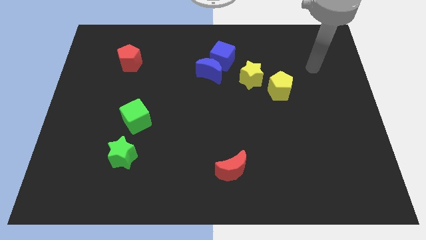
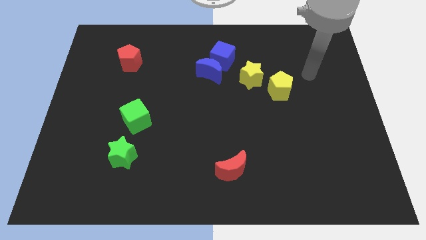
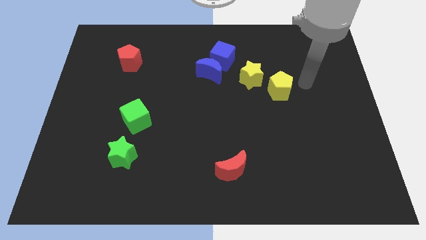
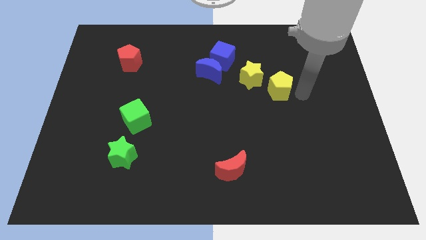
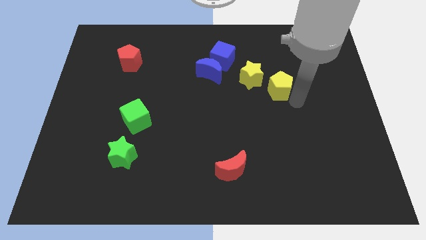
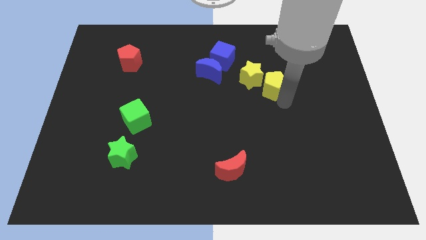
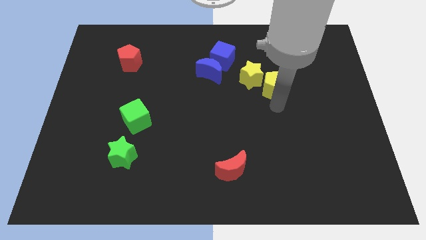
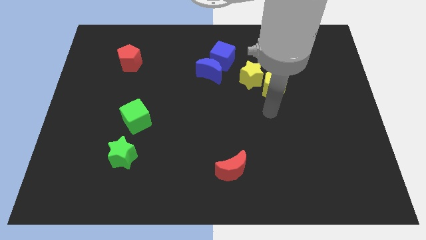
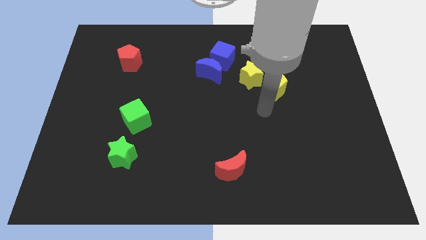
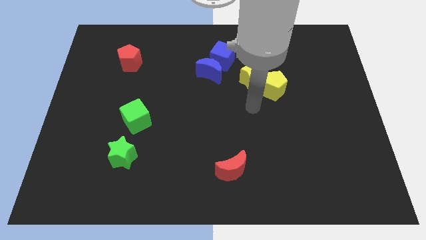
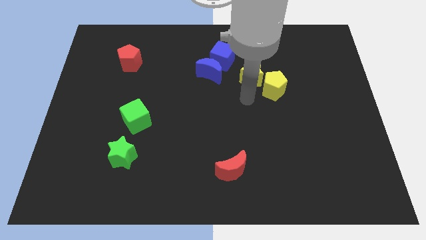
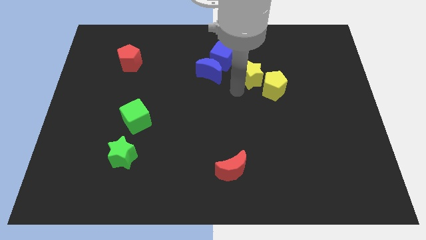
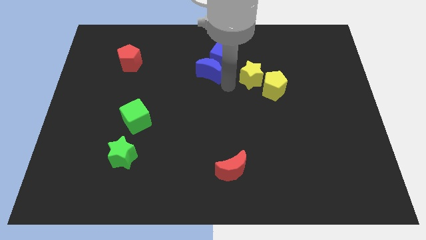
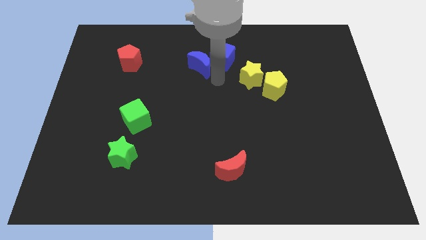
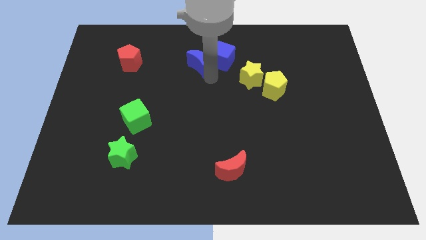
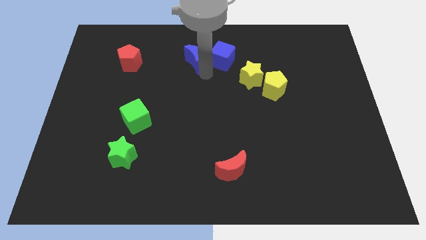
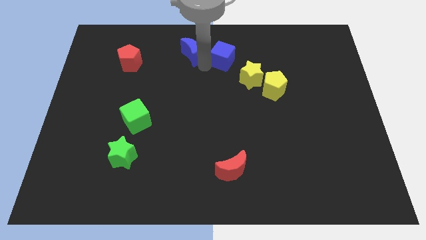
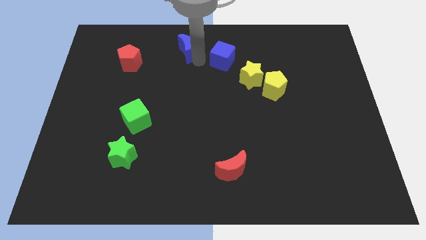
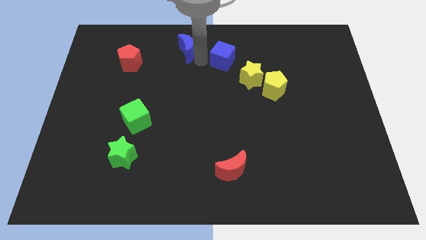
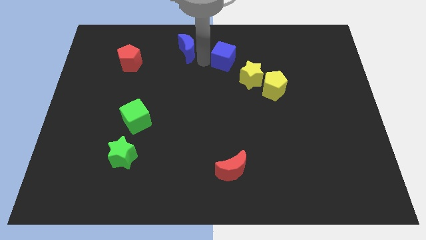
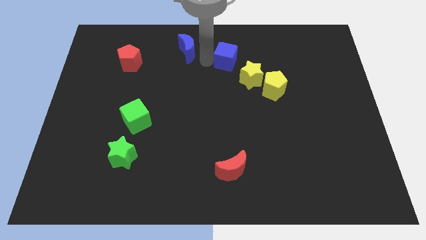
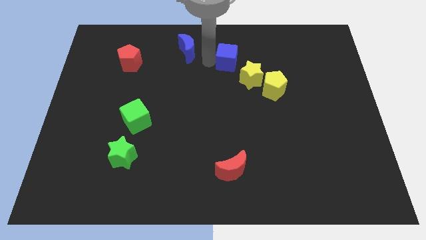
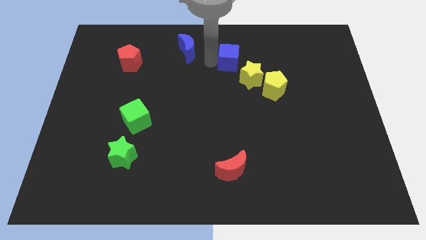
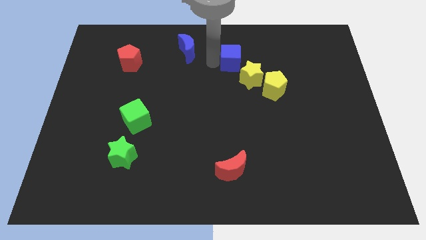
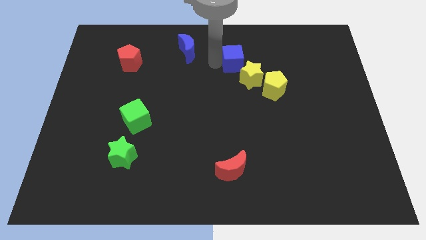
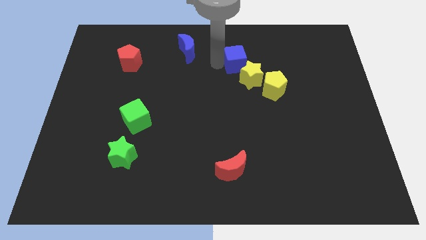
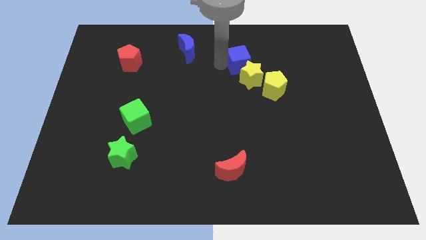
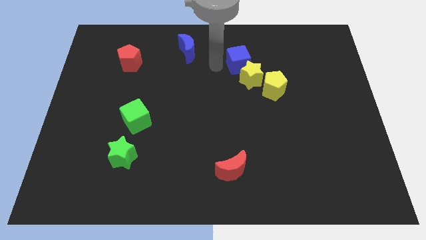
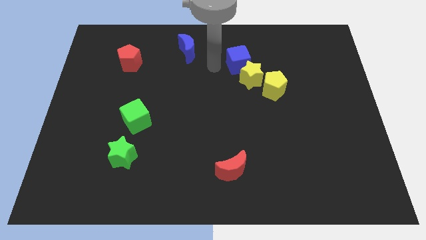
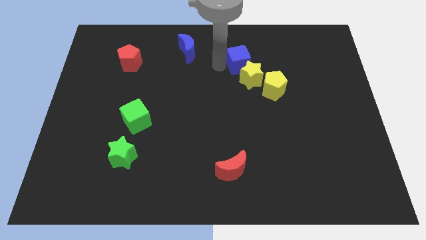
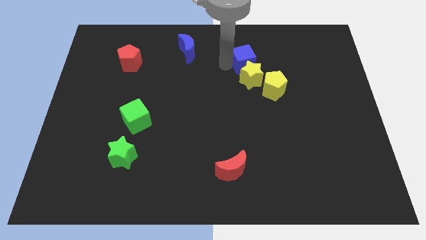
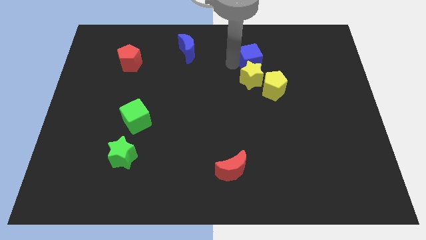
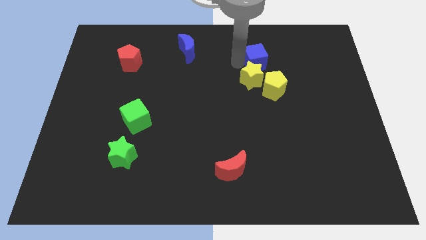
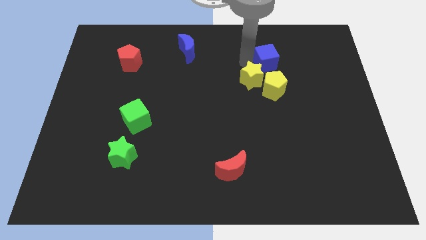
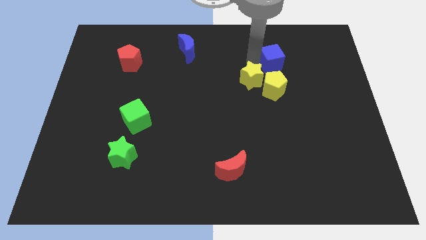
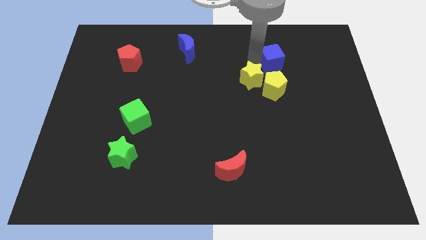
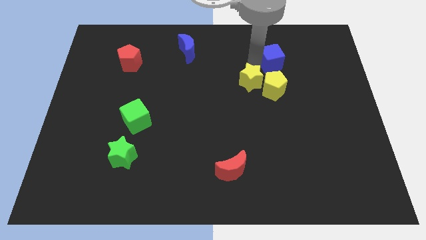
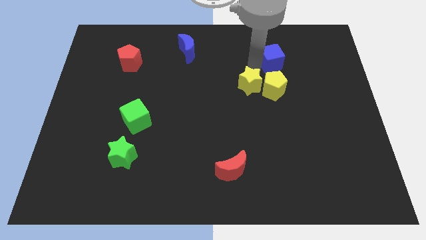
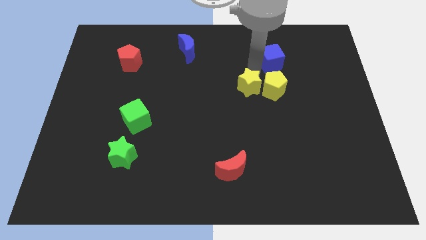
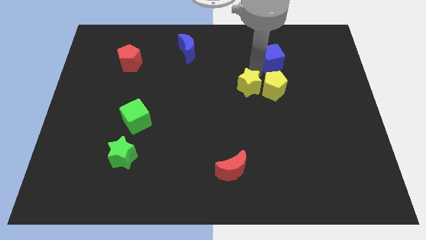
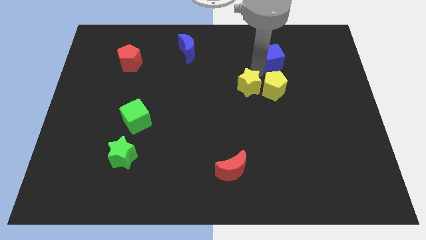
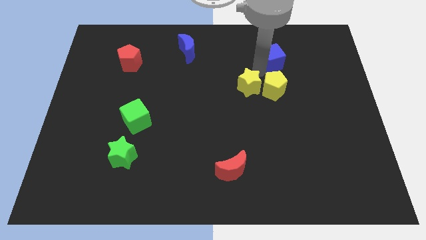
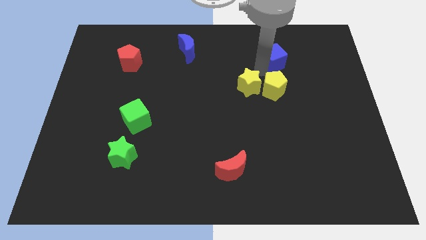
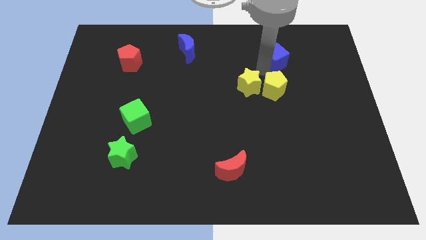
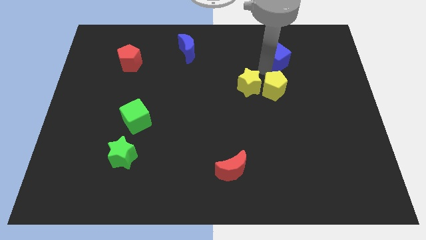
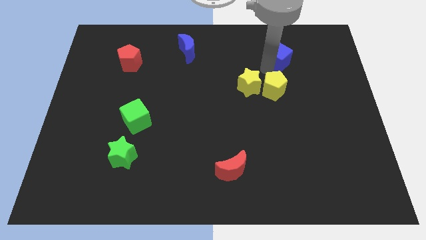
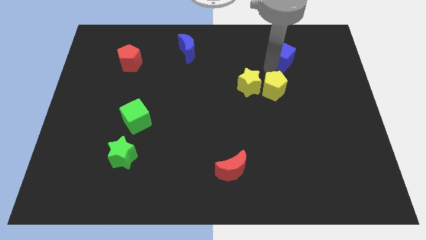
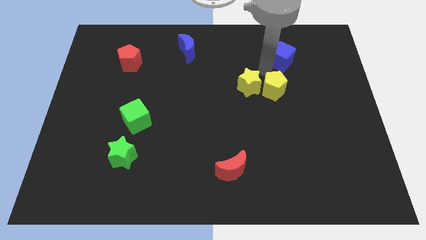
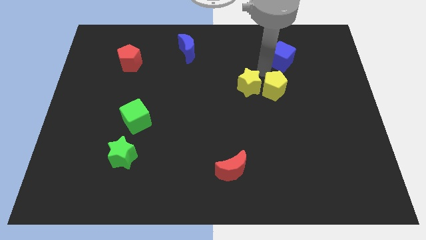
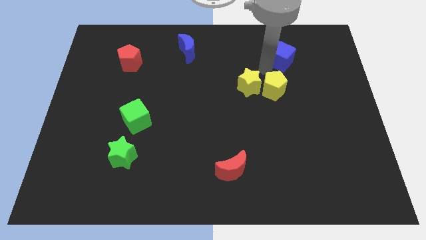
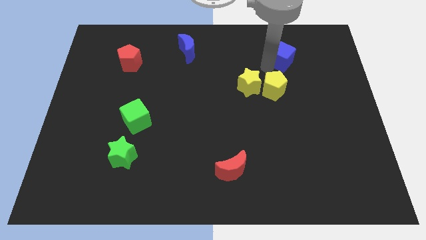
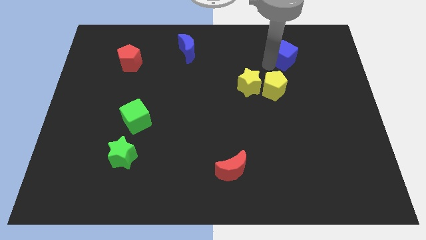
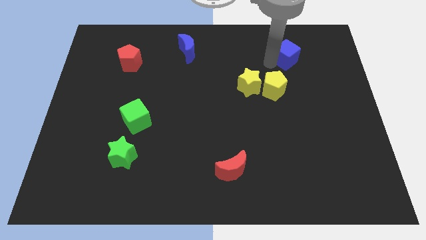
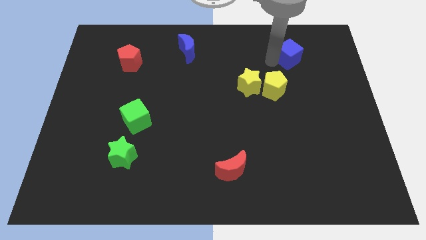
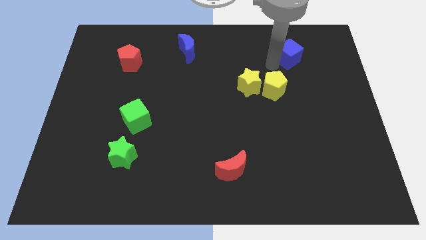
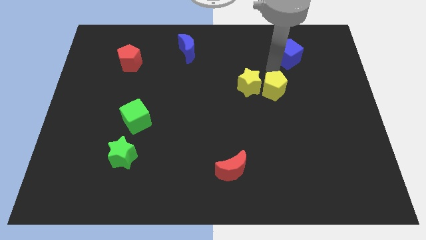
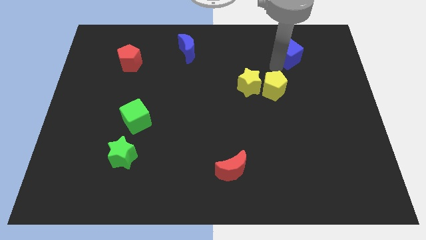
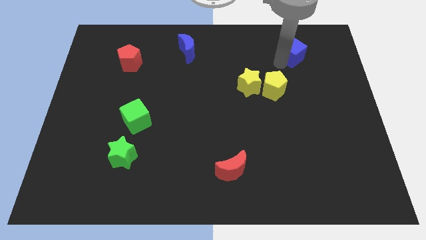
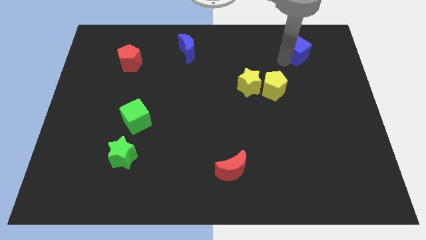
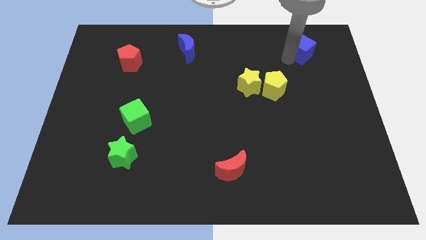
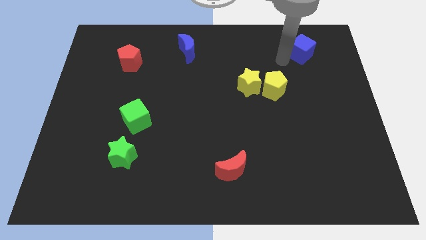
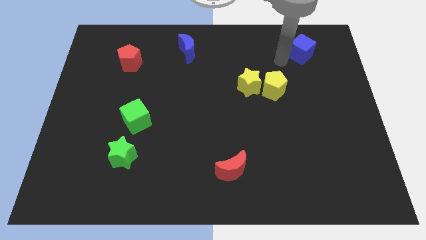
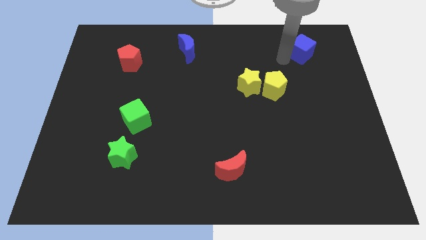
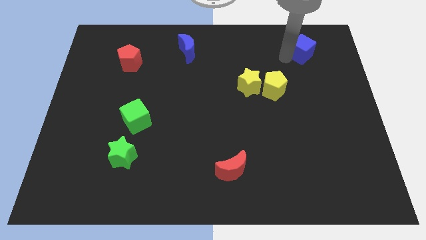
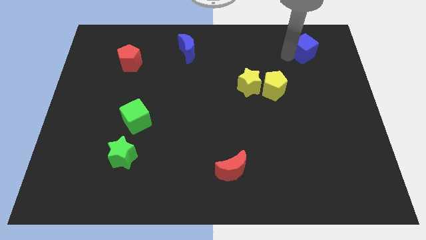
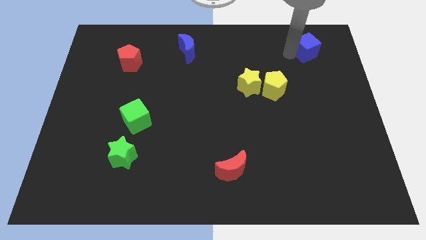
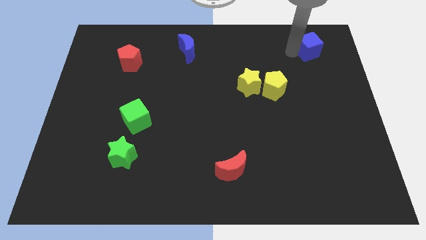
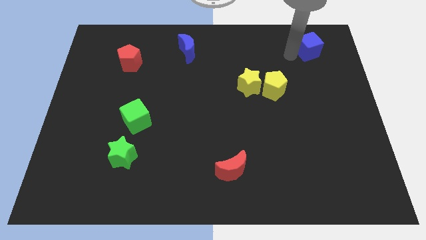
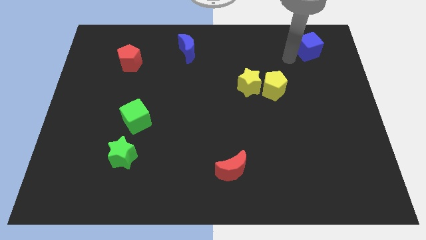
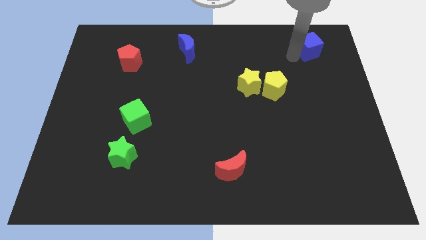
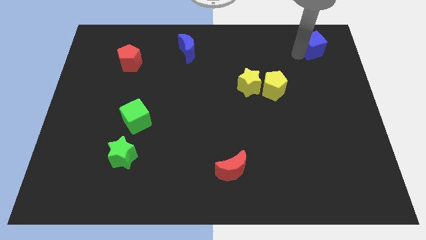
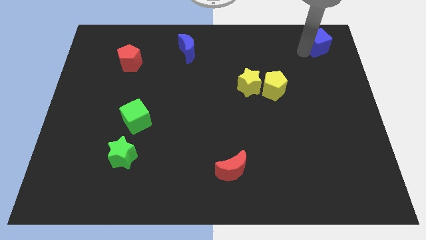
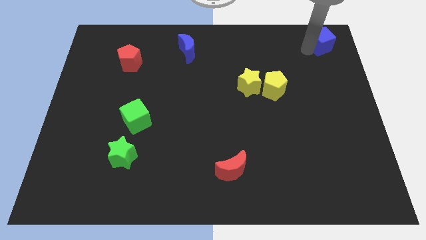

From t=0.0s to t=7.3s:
move the blue cube to the upper right corner
